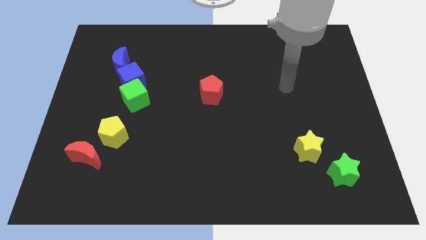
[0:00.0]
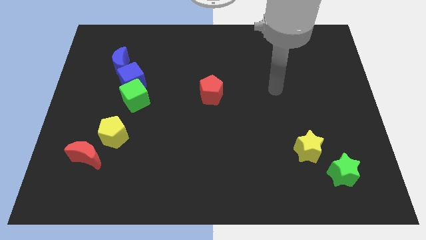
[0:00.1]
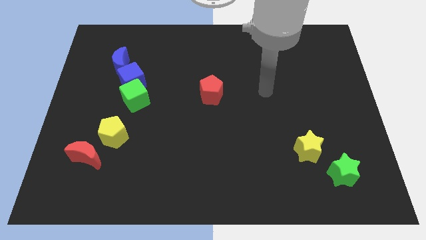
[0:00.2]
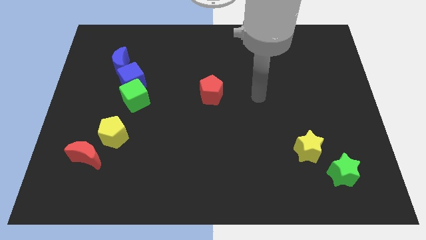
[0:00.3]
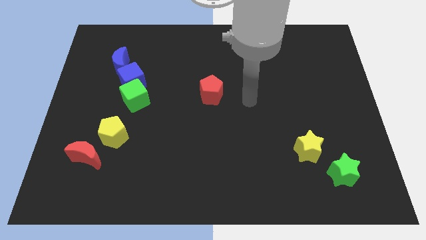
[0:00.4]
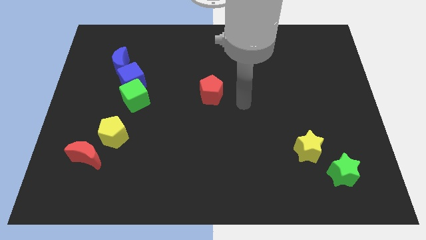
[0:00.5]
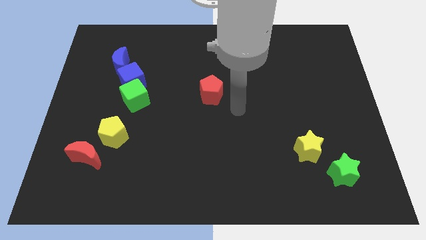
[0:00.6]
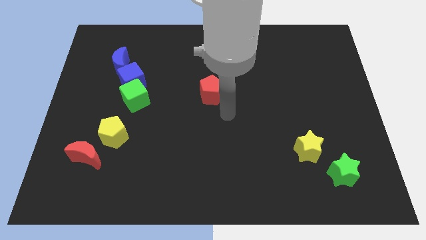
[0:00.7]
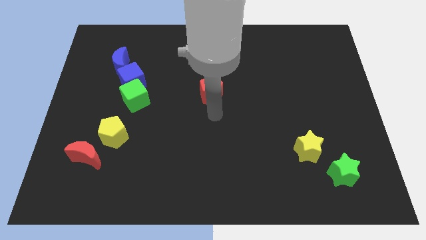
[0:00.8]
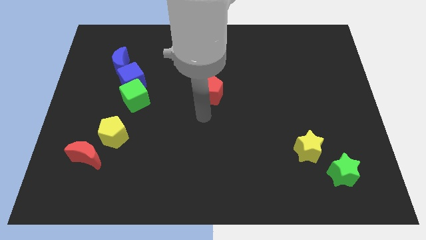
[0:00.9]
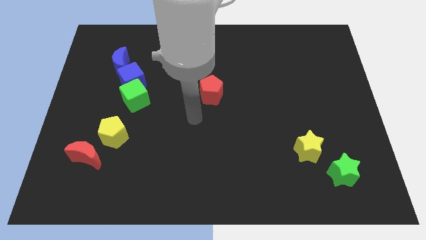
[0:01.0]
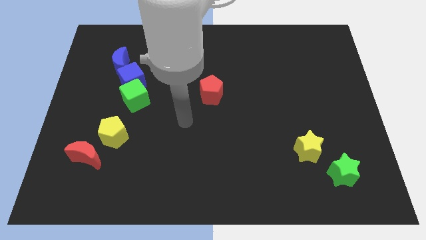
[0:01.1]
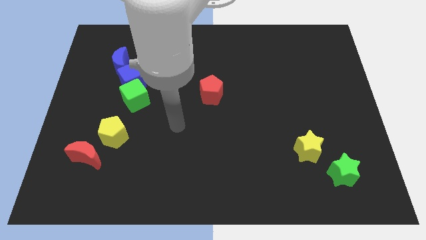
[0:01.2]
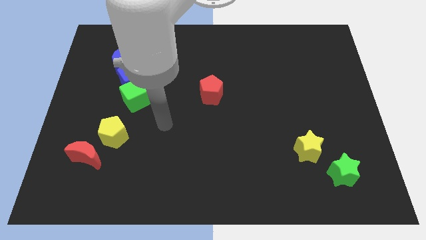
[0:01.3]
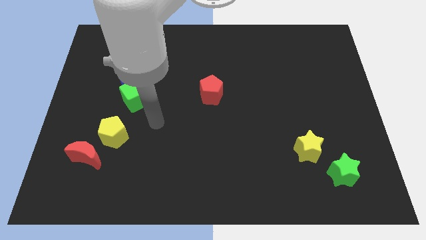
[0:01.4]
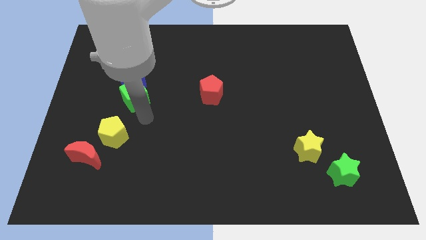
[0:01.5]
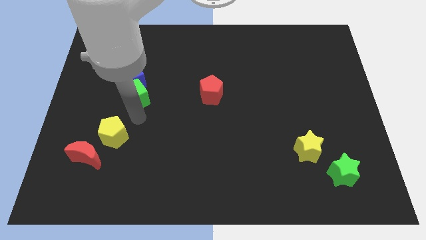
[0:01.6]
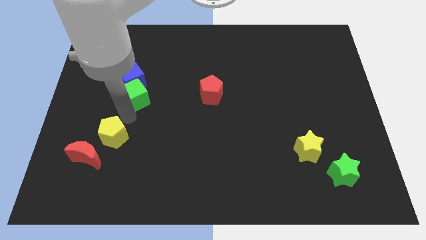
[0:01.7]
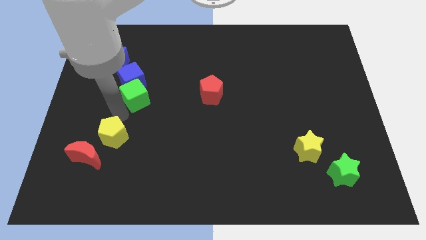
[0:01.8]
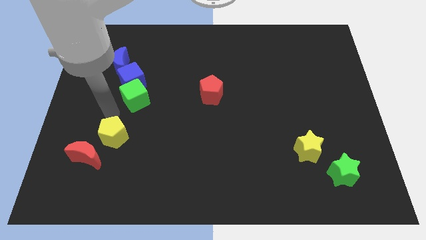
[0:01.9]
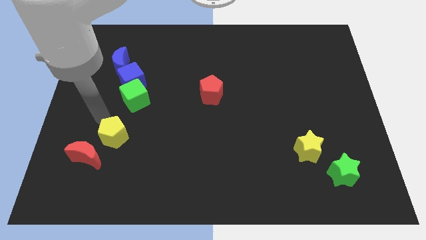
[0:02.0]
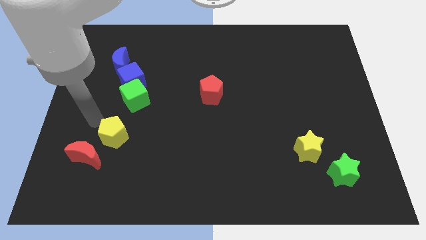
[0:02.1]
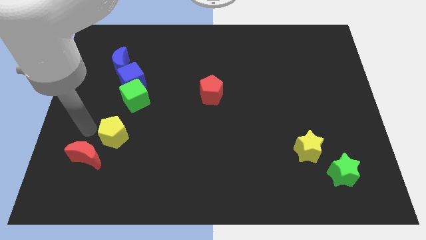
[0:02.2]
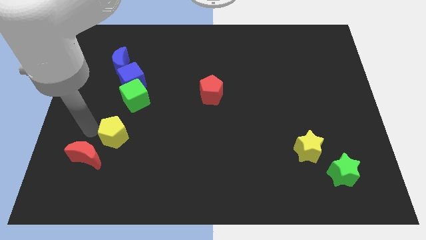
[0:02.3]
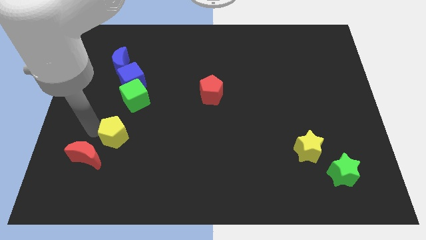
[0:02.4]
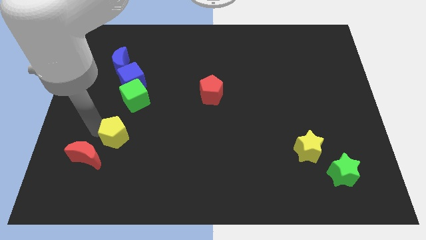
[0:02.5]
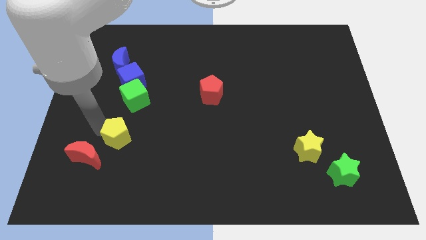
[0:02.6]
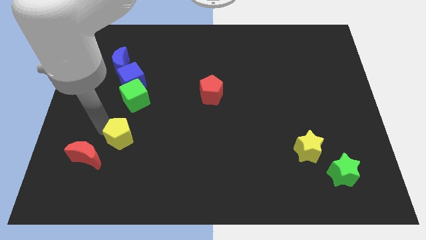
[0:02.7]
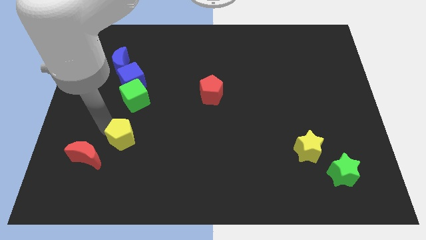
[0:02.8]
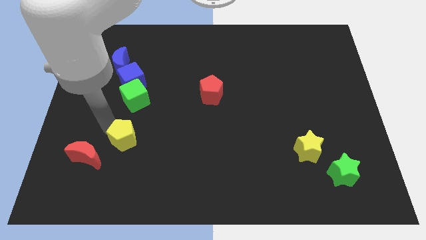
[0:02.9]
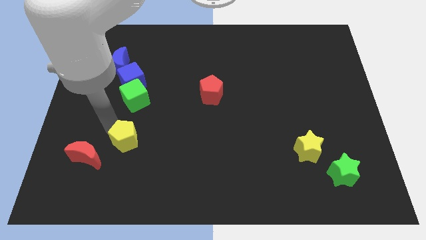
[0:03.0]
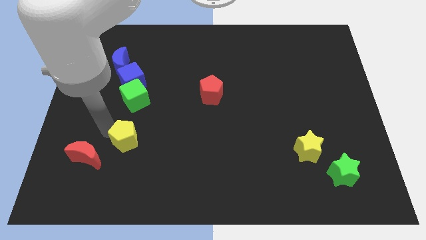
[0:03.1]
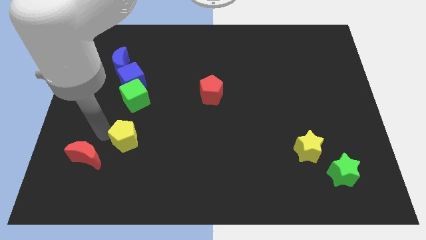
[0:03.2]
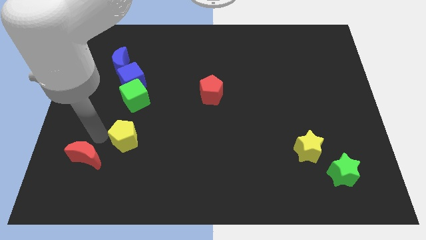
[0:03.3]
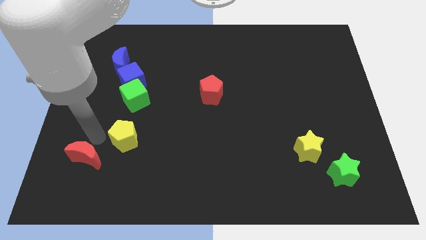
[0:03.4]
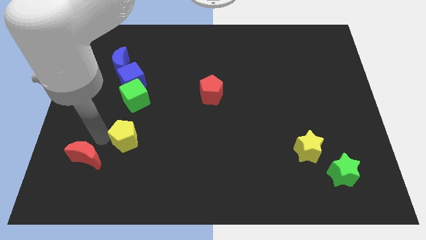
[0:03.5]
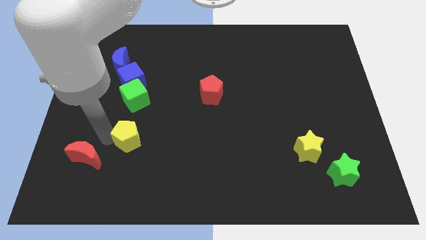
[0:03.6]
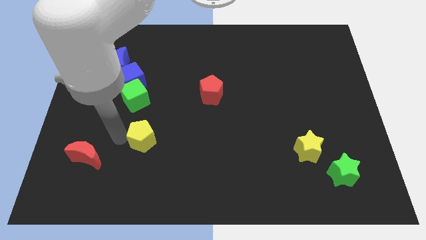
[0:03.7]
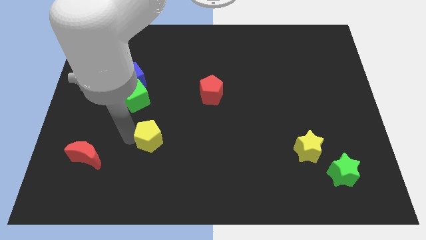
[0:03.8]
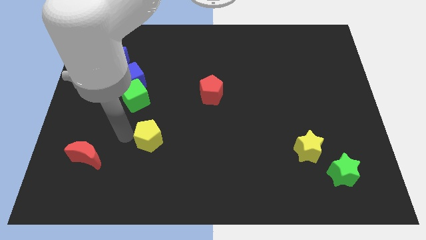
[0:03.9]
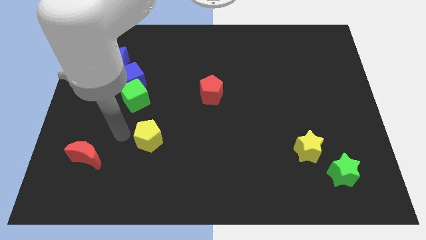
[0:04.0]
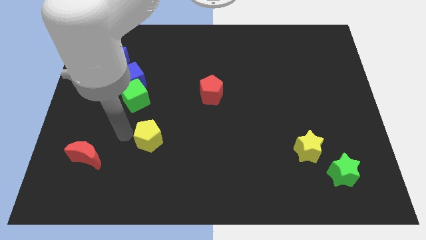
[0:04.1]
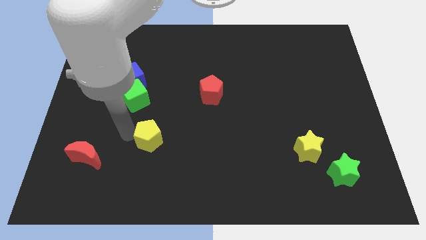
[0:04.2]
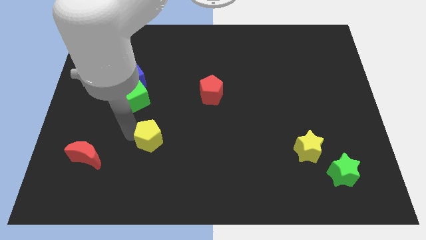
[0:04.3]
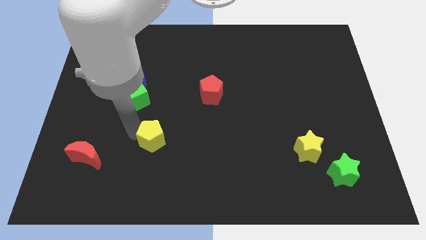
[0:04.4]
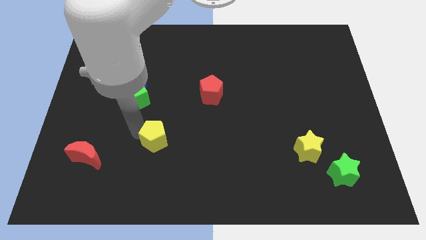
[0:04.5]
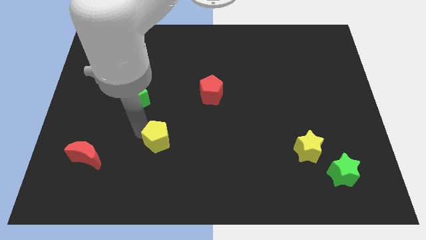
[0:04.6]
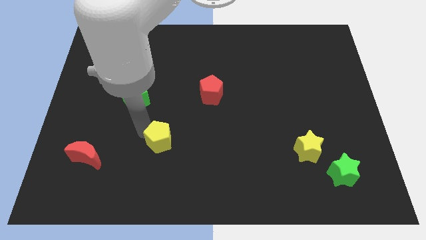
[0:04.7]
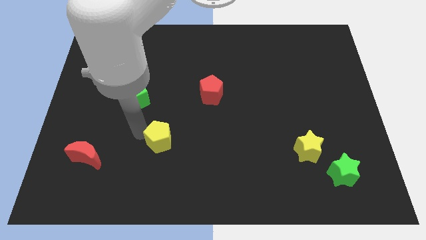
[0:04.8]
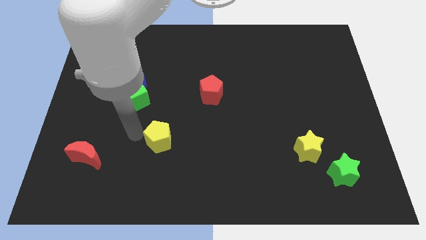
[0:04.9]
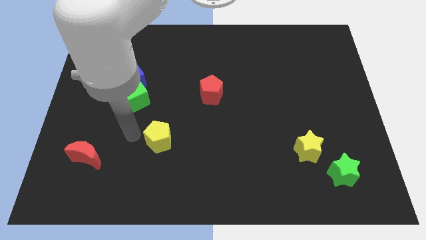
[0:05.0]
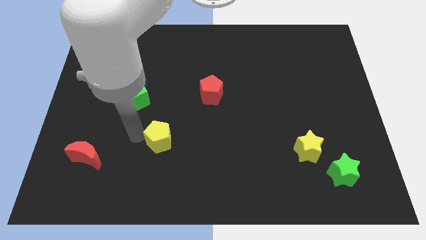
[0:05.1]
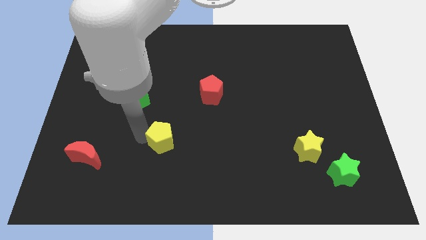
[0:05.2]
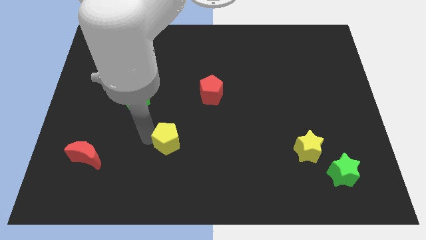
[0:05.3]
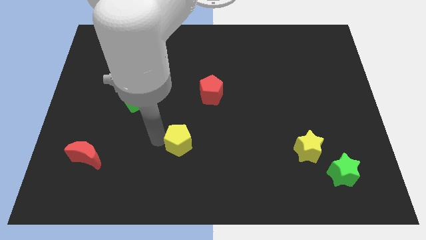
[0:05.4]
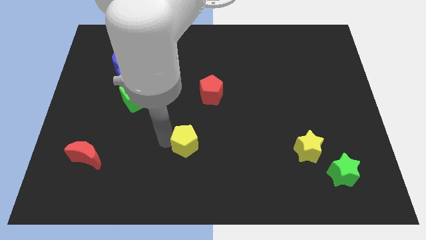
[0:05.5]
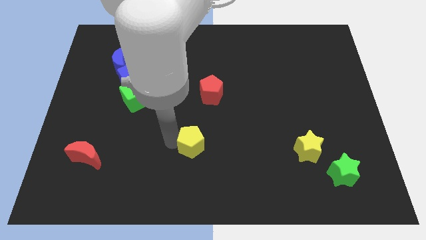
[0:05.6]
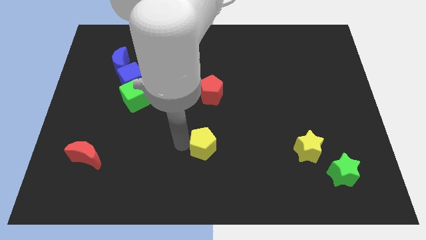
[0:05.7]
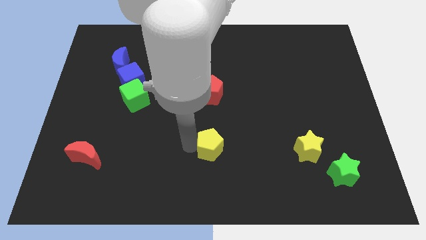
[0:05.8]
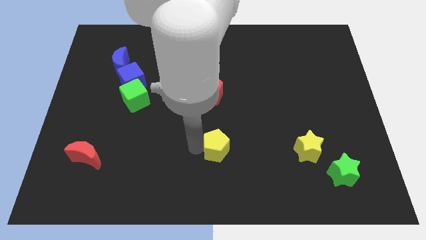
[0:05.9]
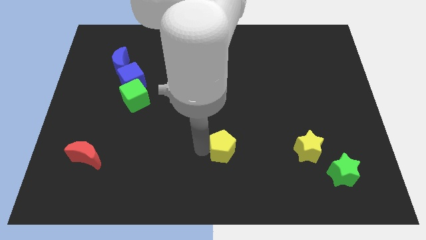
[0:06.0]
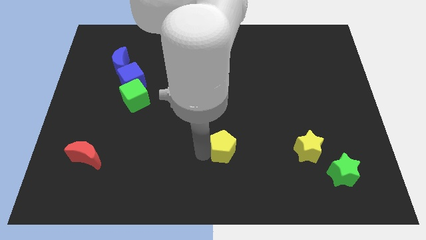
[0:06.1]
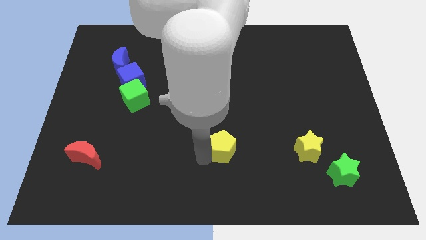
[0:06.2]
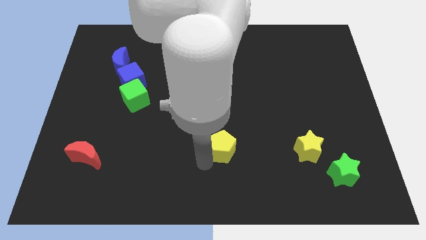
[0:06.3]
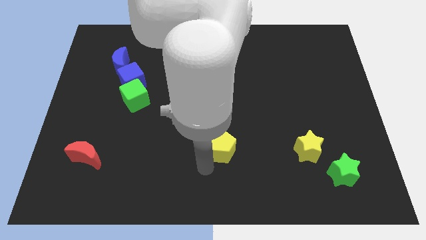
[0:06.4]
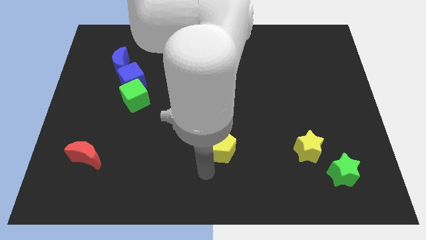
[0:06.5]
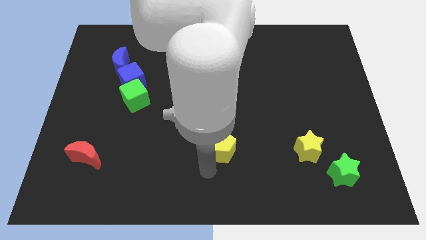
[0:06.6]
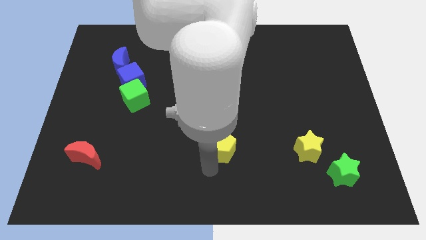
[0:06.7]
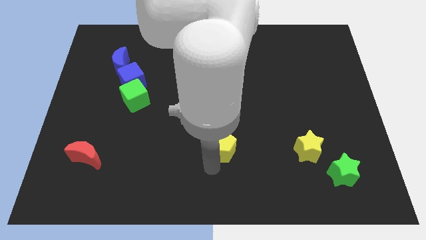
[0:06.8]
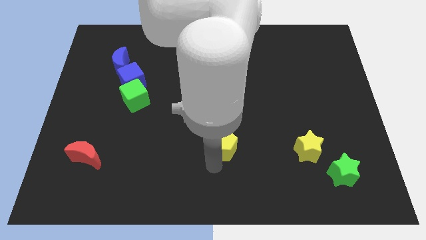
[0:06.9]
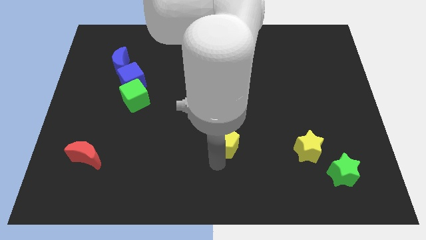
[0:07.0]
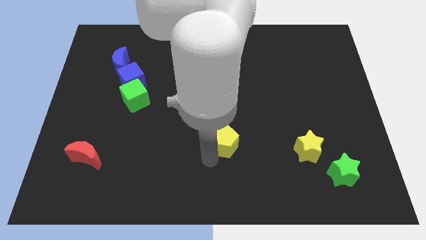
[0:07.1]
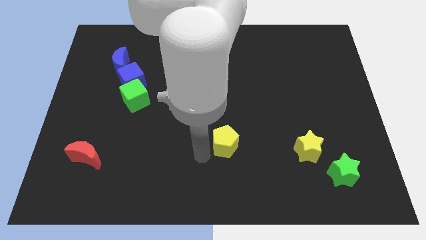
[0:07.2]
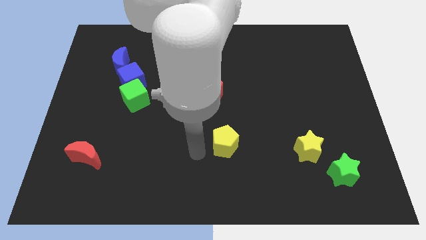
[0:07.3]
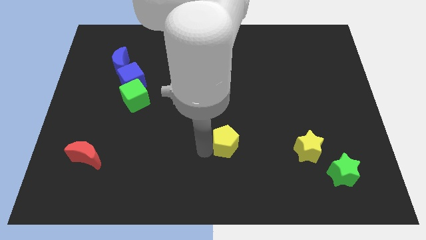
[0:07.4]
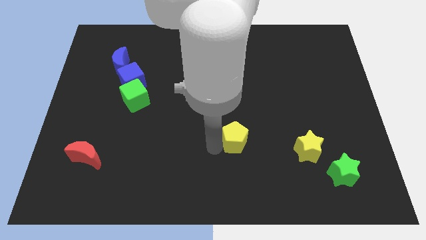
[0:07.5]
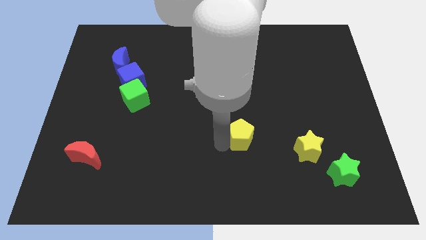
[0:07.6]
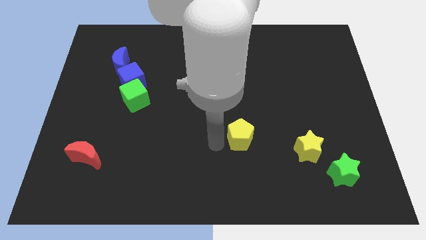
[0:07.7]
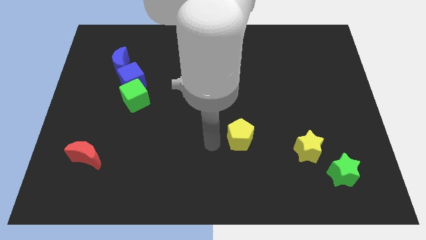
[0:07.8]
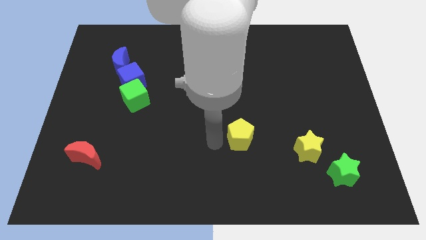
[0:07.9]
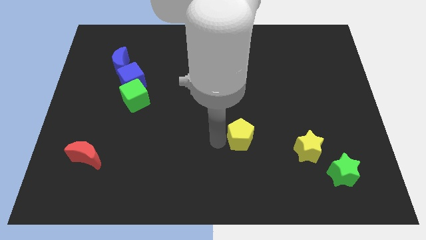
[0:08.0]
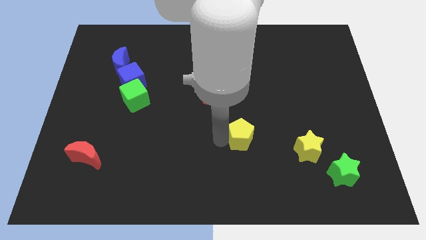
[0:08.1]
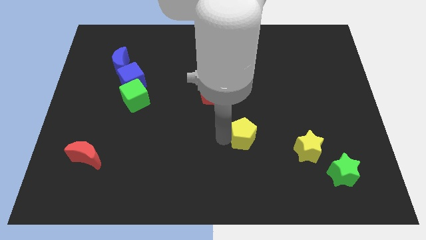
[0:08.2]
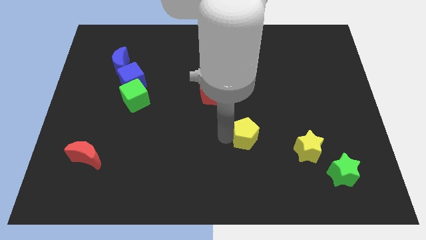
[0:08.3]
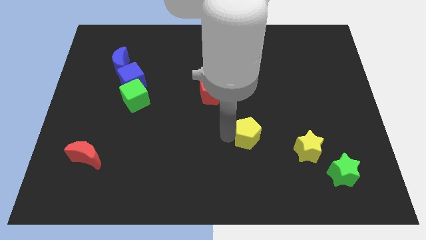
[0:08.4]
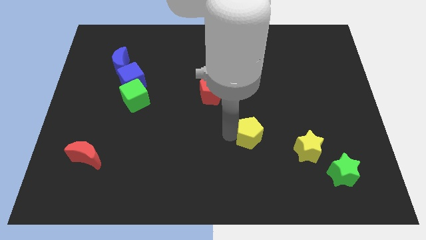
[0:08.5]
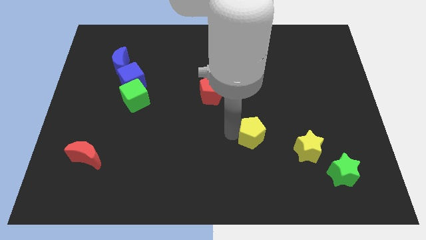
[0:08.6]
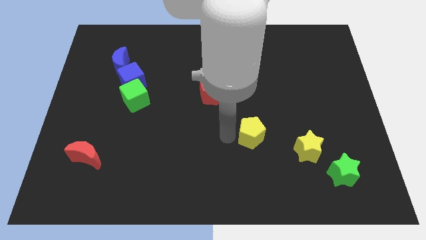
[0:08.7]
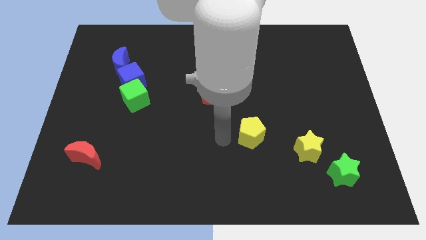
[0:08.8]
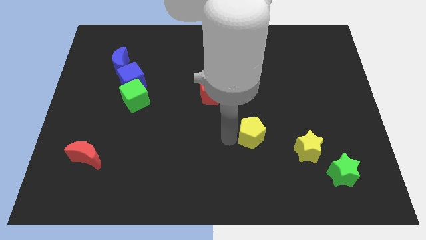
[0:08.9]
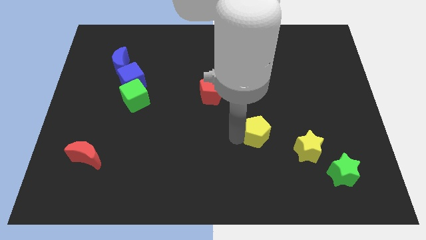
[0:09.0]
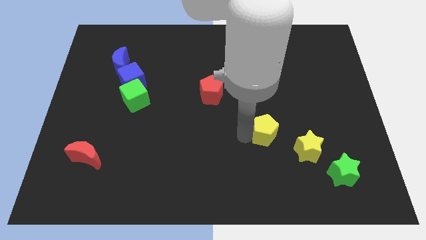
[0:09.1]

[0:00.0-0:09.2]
slide the yellow pentagon to the top left side of the yellow star
